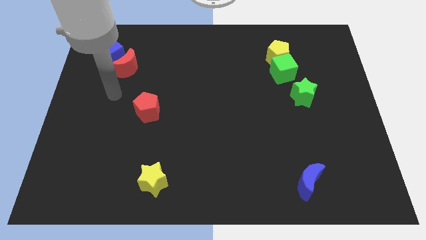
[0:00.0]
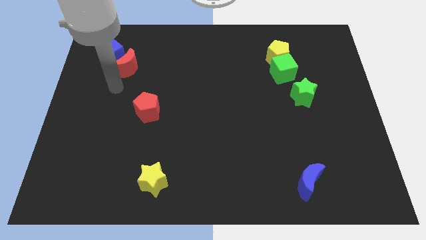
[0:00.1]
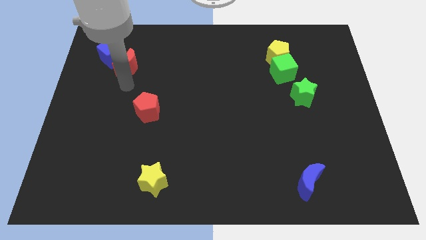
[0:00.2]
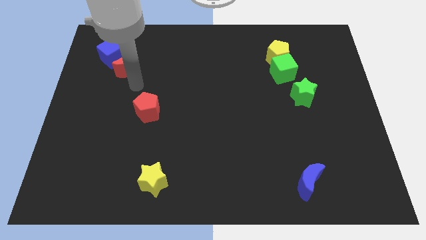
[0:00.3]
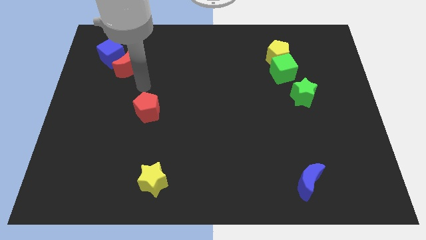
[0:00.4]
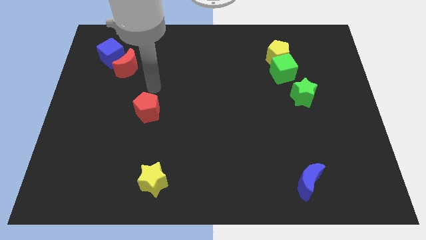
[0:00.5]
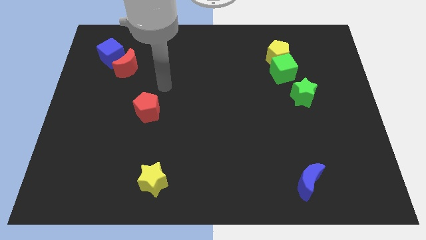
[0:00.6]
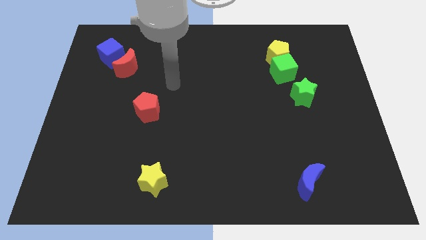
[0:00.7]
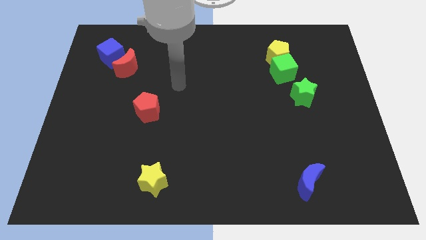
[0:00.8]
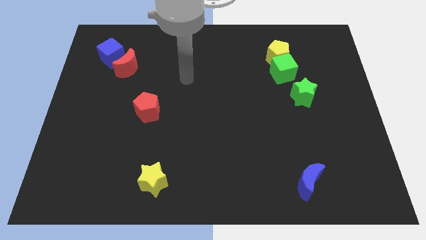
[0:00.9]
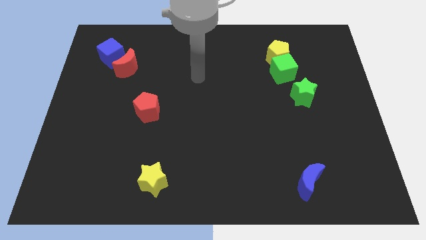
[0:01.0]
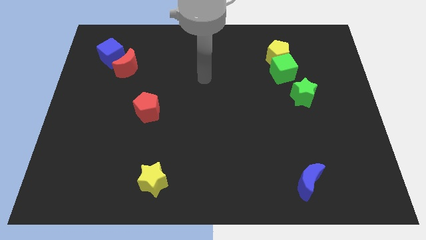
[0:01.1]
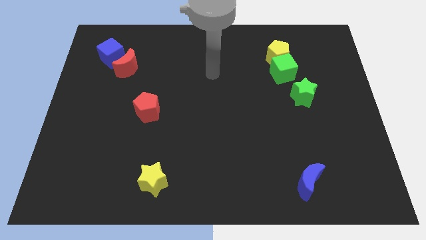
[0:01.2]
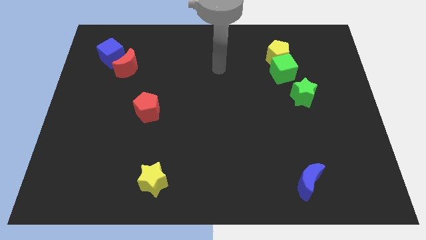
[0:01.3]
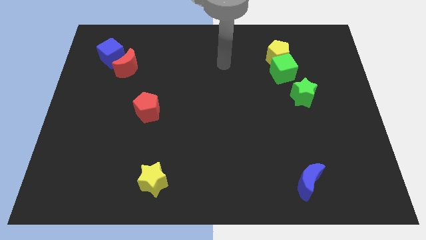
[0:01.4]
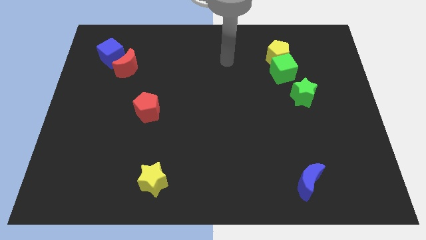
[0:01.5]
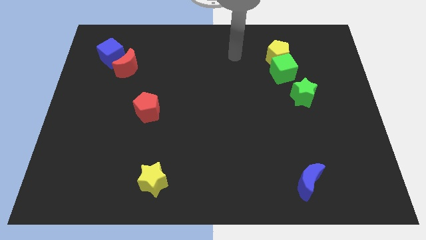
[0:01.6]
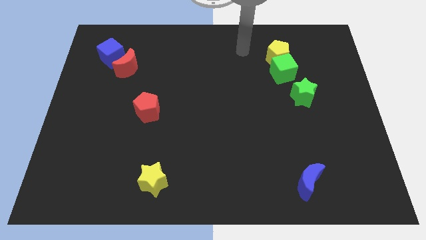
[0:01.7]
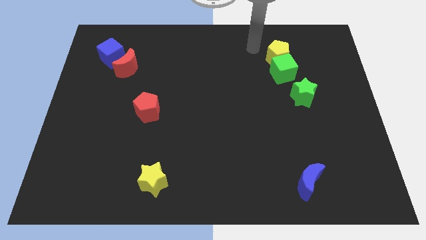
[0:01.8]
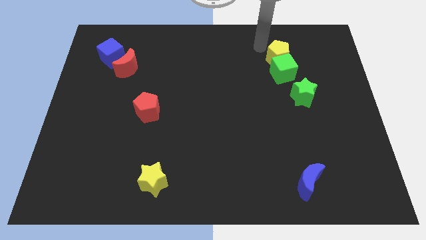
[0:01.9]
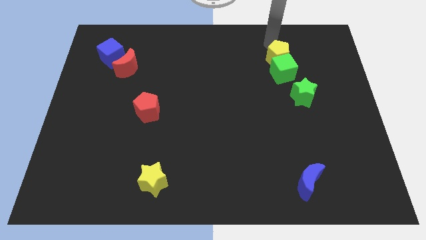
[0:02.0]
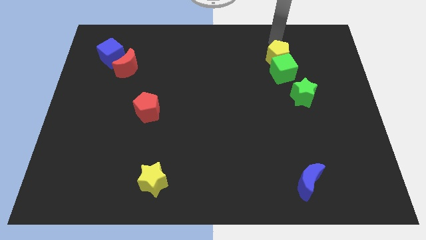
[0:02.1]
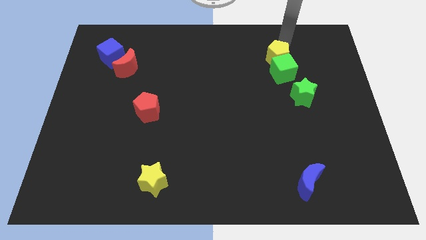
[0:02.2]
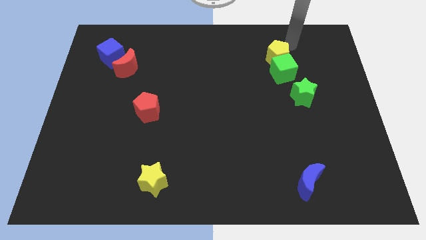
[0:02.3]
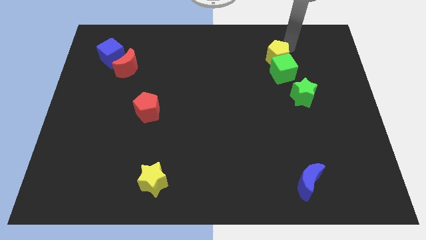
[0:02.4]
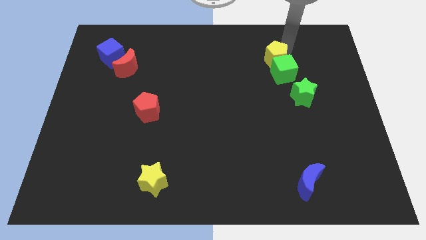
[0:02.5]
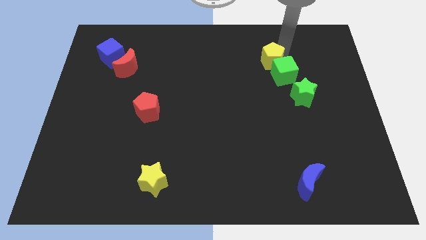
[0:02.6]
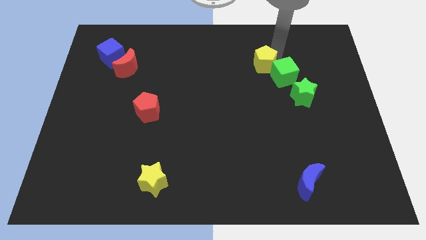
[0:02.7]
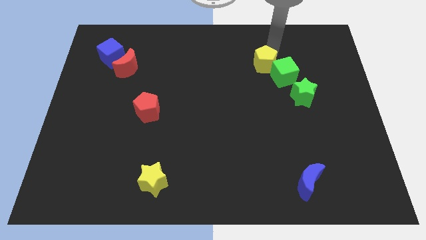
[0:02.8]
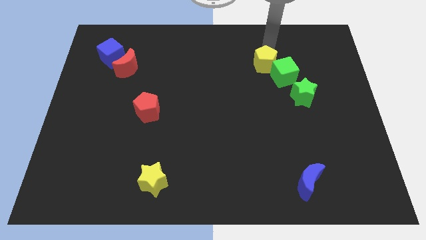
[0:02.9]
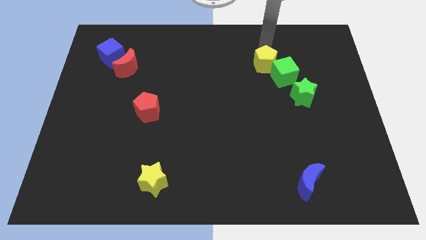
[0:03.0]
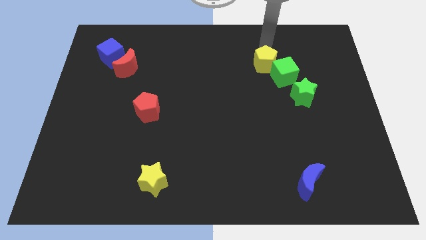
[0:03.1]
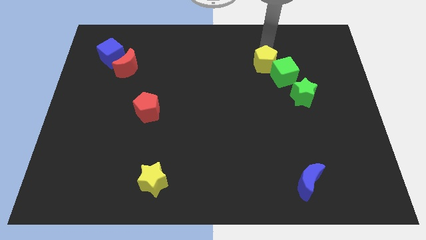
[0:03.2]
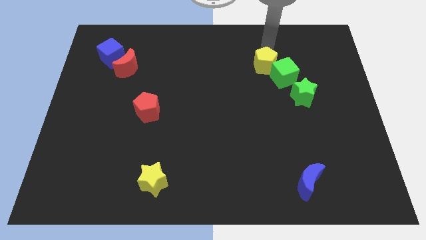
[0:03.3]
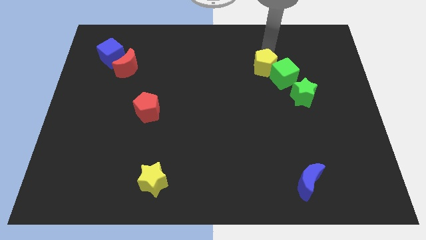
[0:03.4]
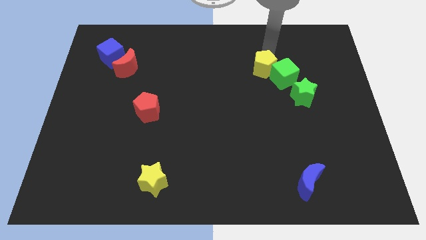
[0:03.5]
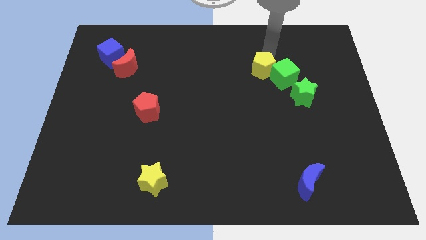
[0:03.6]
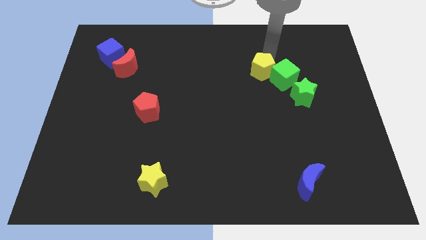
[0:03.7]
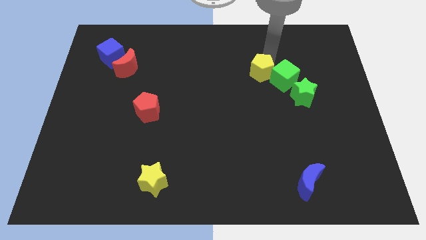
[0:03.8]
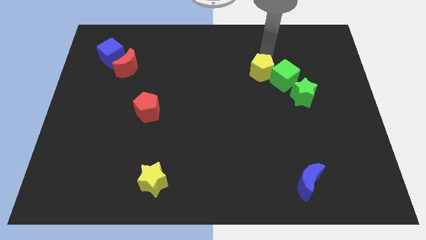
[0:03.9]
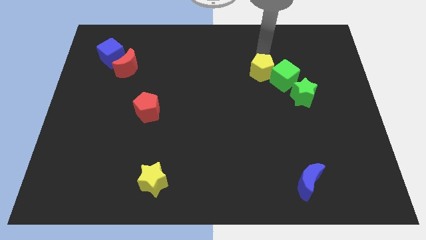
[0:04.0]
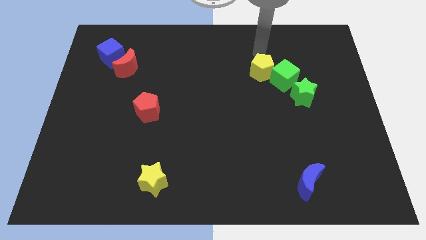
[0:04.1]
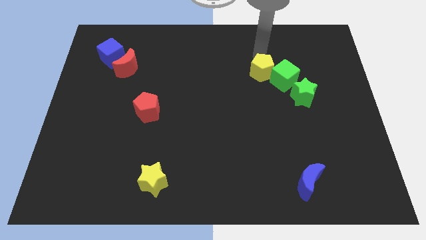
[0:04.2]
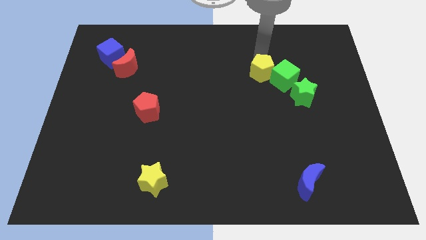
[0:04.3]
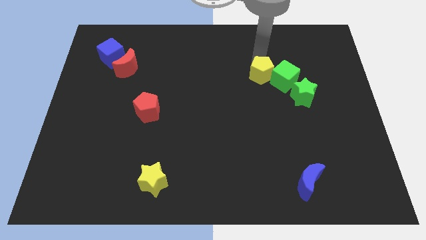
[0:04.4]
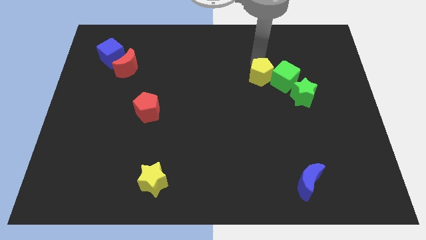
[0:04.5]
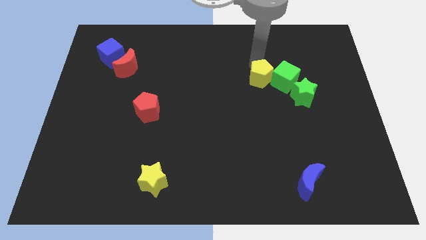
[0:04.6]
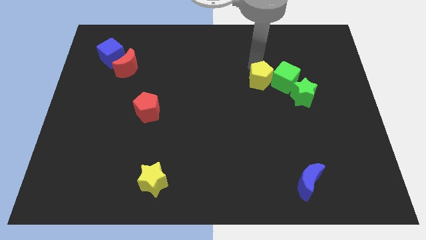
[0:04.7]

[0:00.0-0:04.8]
slide the yellow pentagon a little downwards

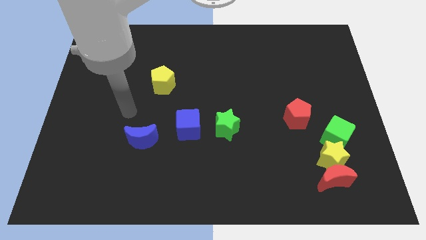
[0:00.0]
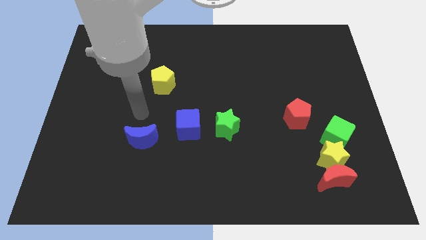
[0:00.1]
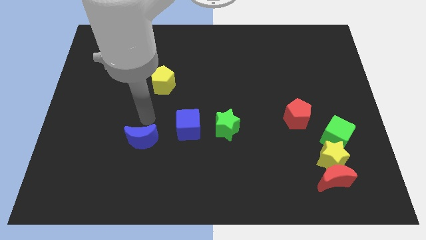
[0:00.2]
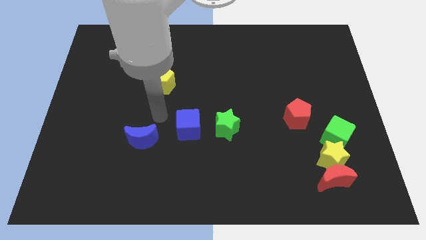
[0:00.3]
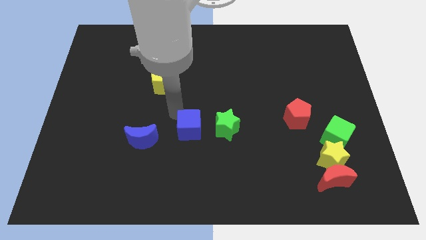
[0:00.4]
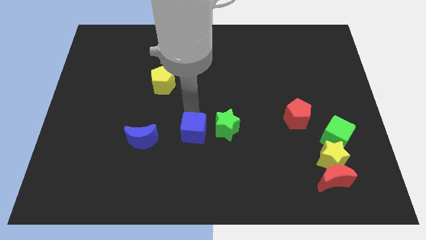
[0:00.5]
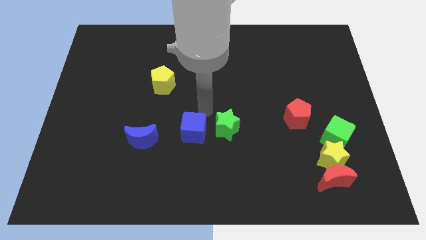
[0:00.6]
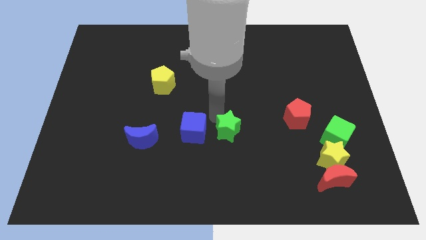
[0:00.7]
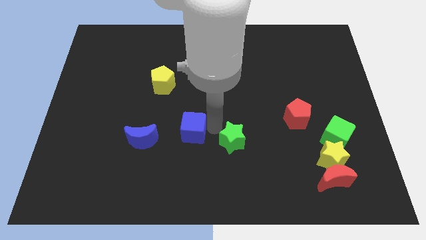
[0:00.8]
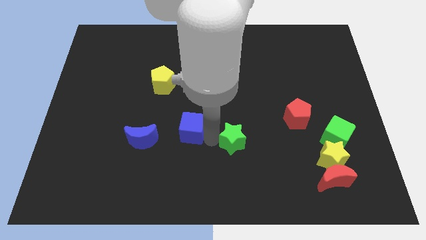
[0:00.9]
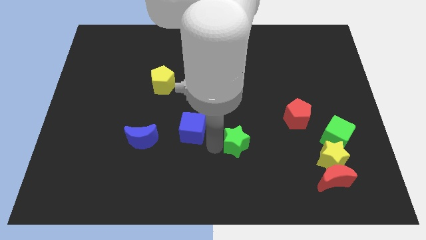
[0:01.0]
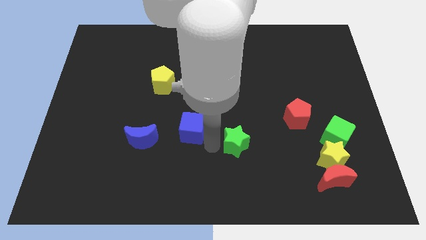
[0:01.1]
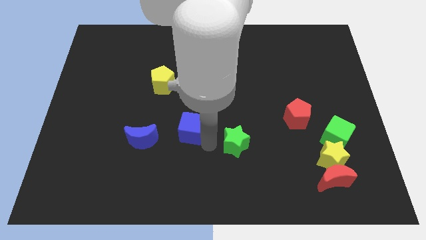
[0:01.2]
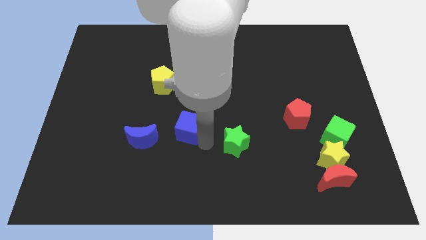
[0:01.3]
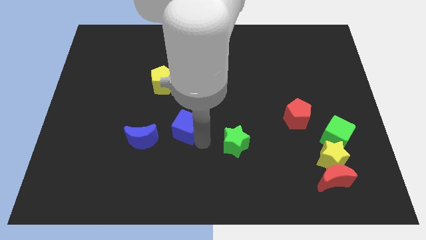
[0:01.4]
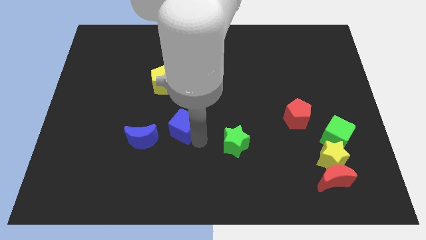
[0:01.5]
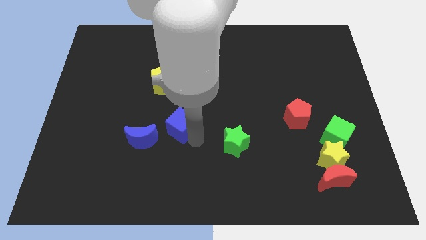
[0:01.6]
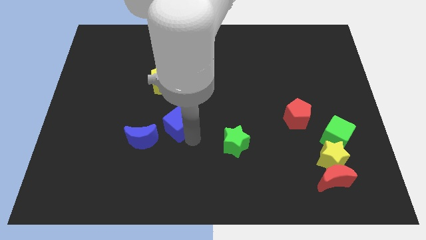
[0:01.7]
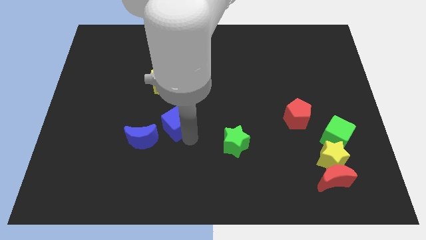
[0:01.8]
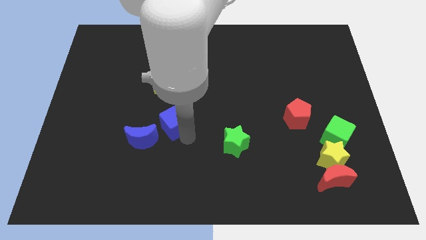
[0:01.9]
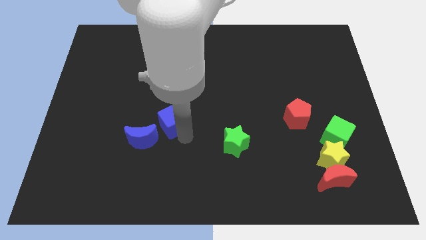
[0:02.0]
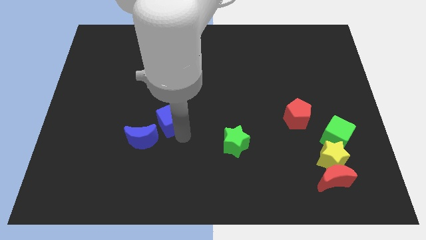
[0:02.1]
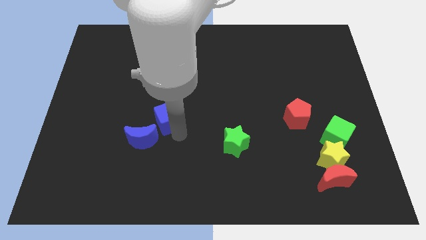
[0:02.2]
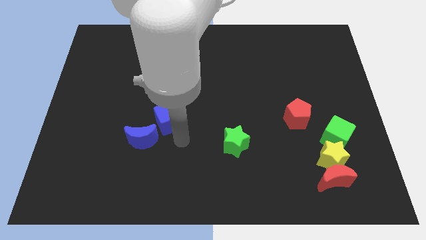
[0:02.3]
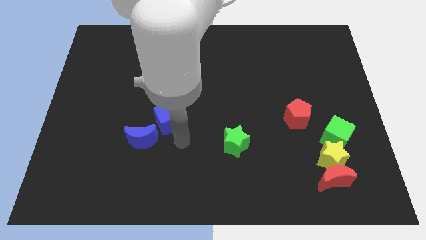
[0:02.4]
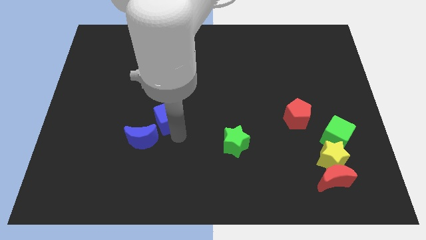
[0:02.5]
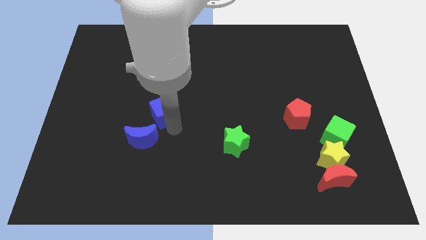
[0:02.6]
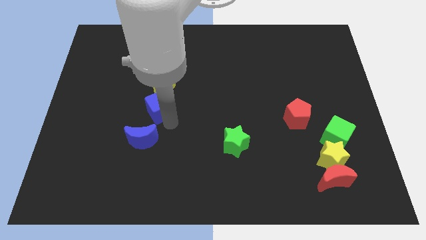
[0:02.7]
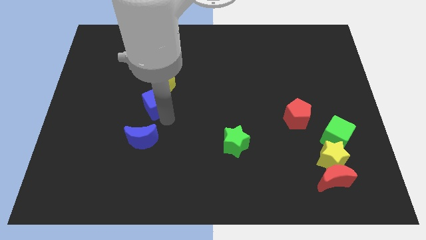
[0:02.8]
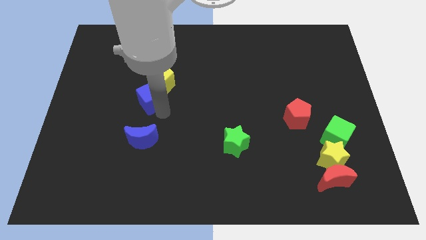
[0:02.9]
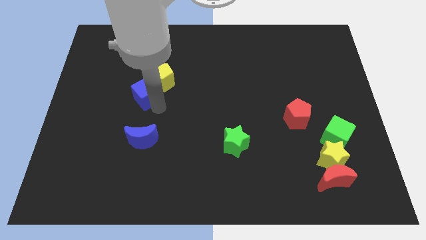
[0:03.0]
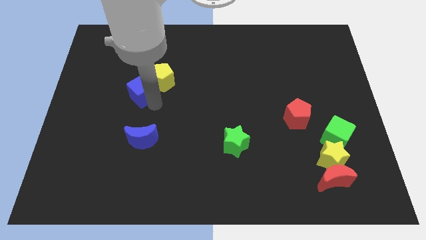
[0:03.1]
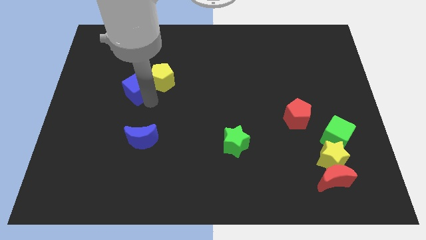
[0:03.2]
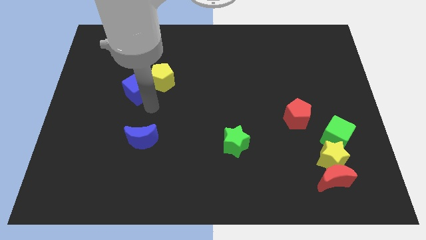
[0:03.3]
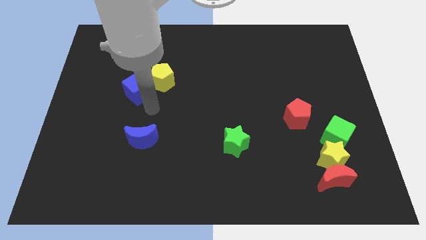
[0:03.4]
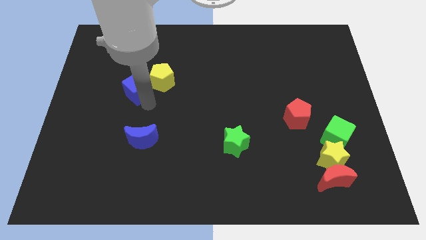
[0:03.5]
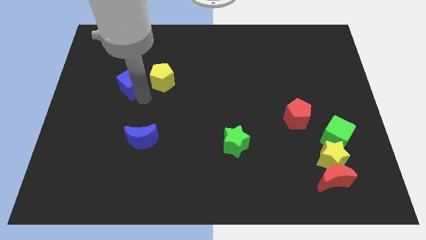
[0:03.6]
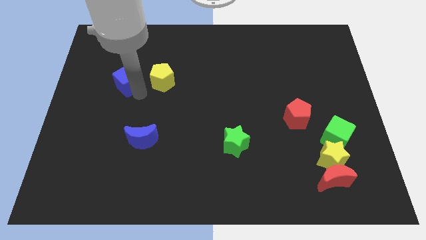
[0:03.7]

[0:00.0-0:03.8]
slide the blue cube up and left diagonally
